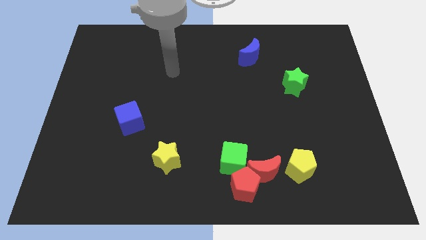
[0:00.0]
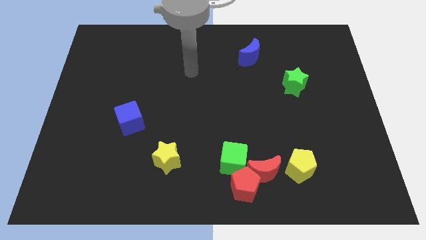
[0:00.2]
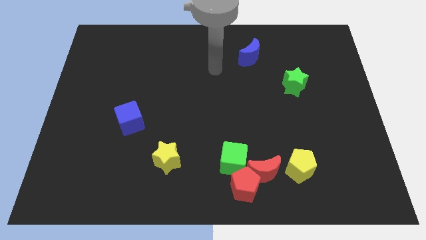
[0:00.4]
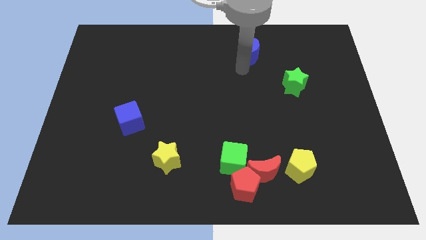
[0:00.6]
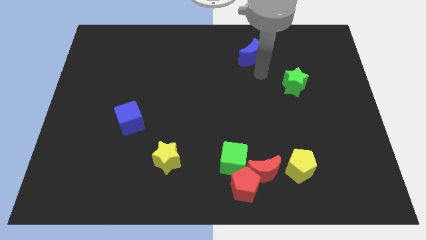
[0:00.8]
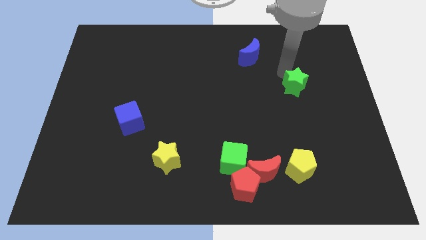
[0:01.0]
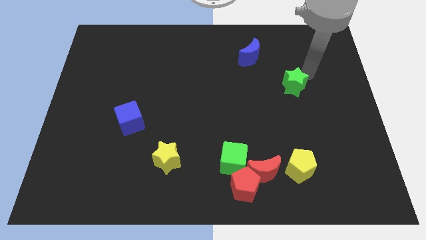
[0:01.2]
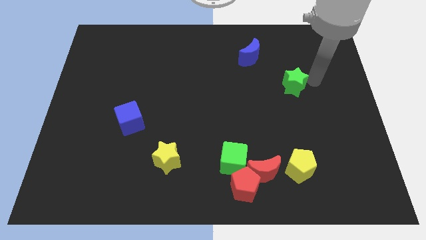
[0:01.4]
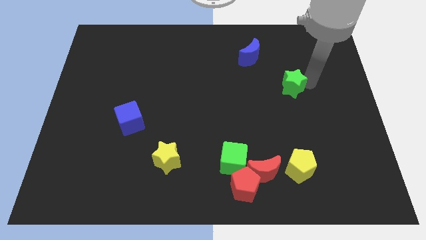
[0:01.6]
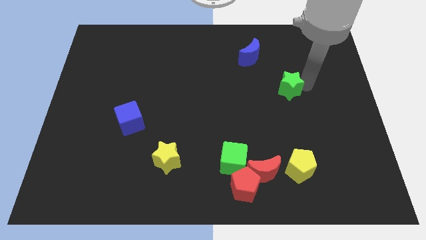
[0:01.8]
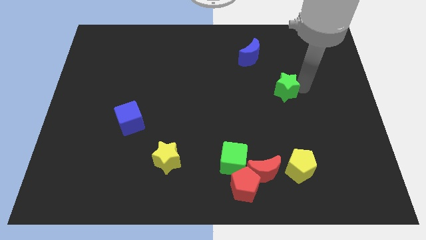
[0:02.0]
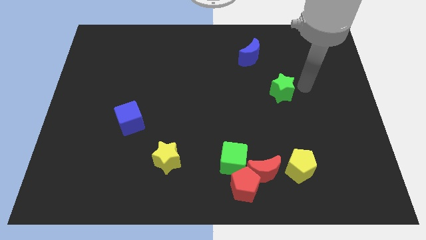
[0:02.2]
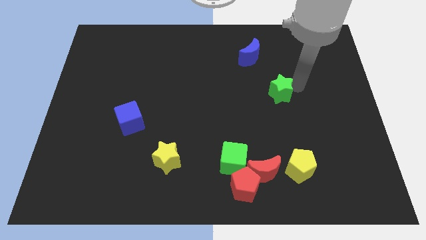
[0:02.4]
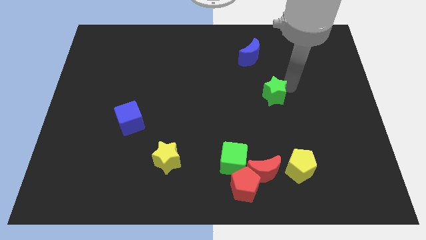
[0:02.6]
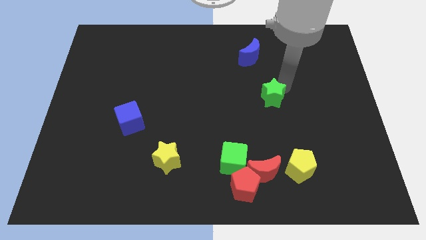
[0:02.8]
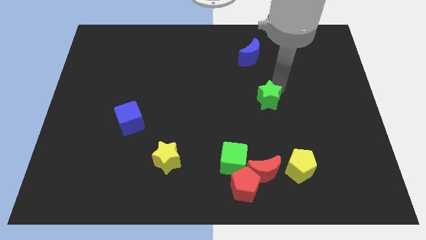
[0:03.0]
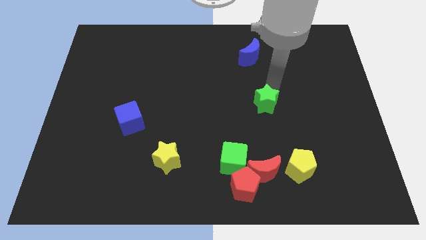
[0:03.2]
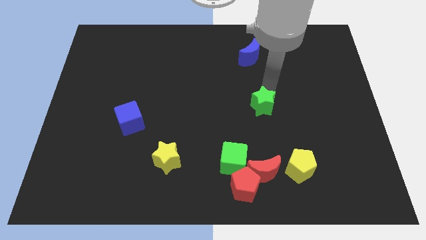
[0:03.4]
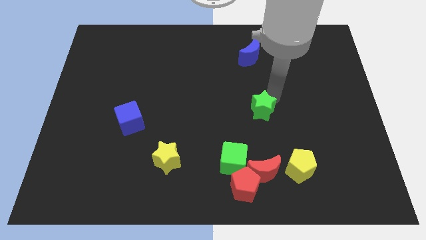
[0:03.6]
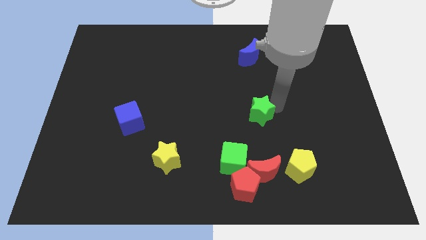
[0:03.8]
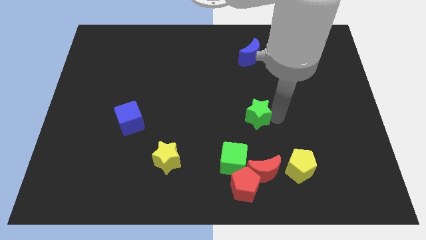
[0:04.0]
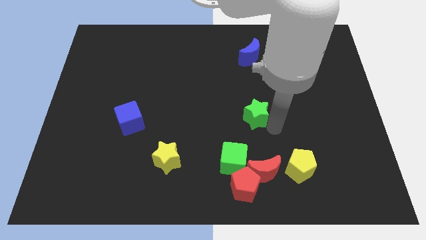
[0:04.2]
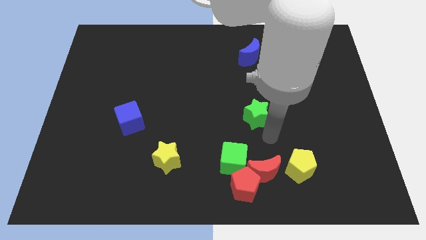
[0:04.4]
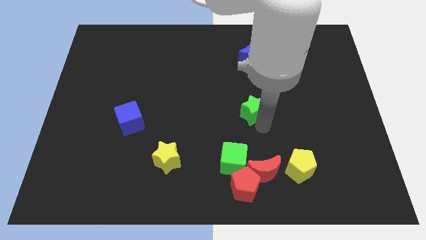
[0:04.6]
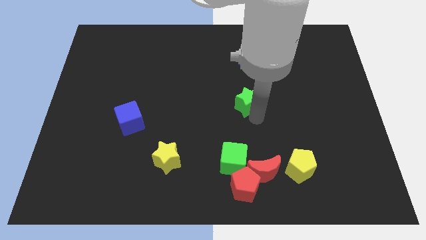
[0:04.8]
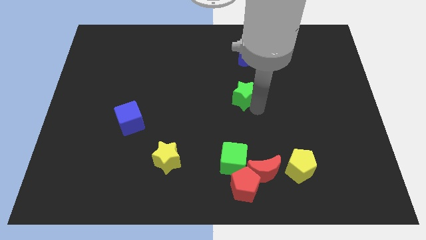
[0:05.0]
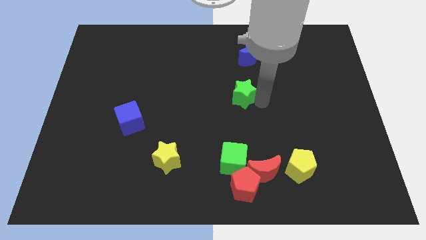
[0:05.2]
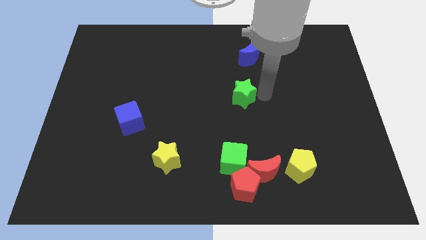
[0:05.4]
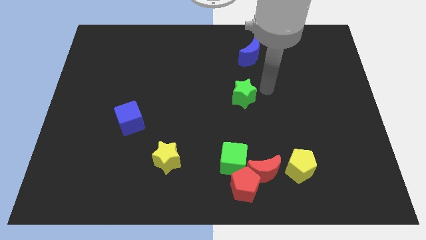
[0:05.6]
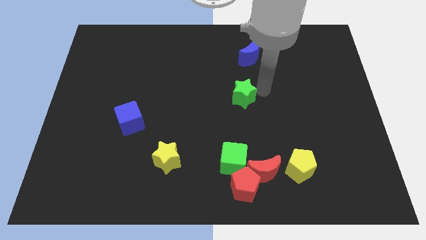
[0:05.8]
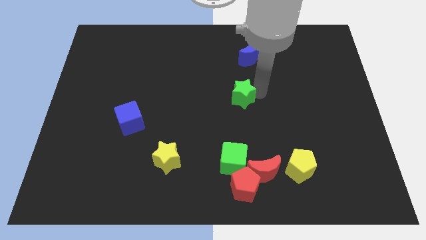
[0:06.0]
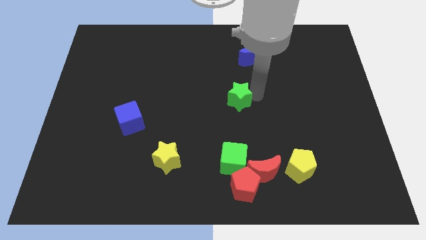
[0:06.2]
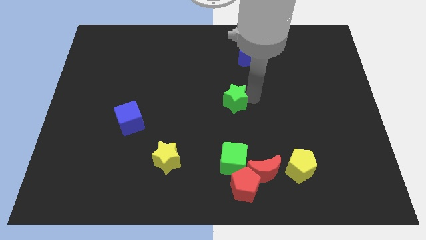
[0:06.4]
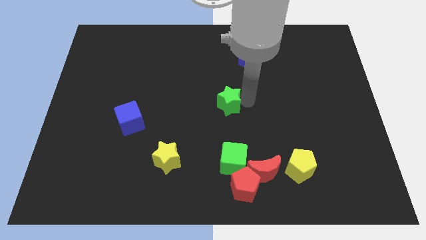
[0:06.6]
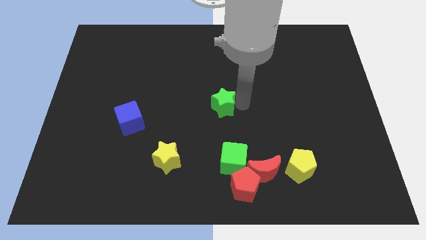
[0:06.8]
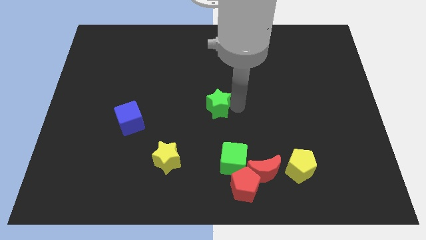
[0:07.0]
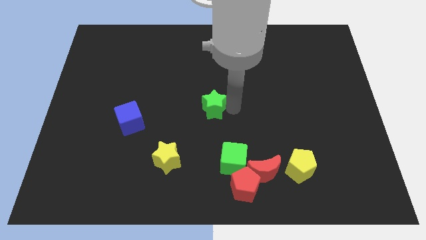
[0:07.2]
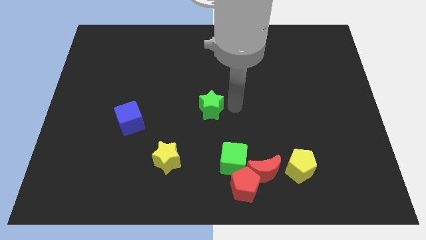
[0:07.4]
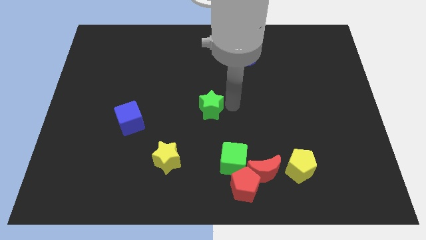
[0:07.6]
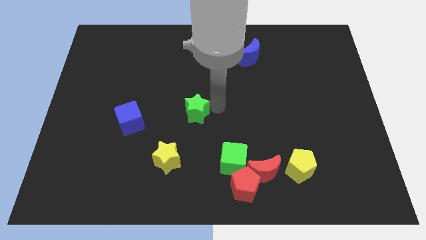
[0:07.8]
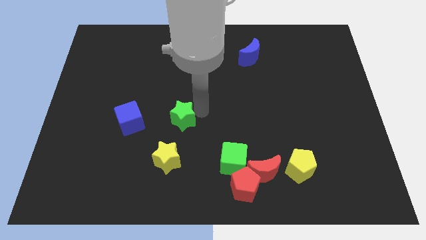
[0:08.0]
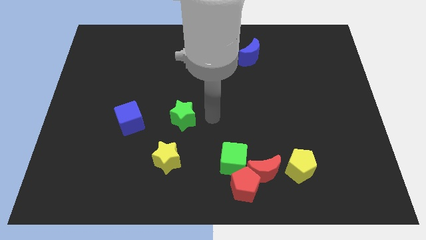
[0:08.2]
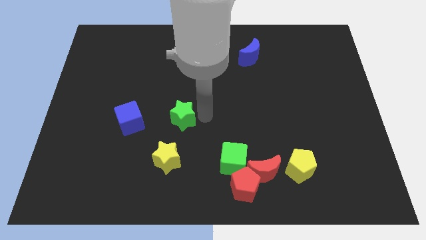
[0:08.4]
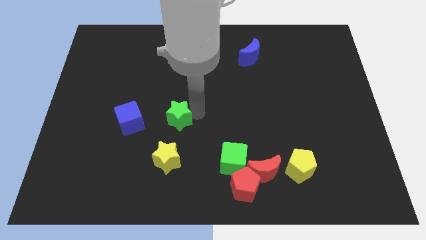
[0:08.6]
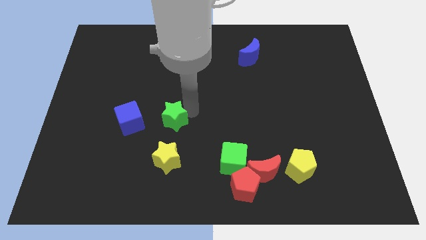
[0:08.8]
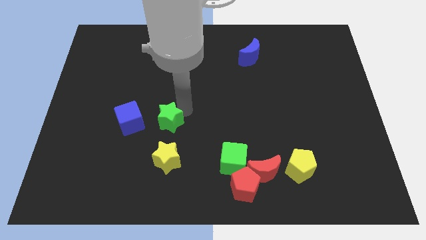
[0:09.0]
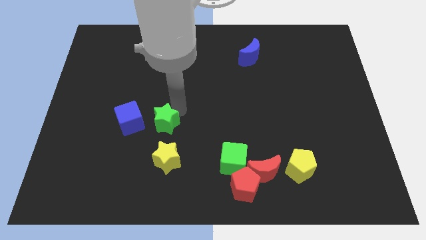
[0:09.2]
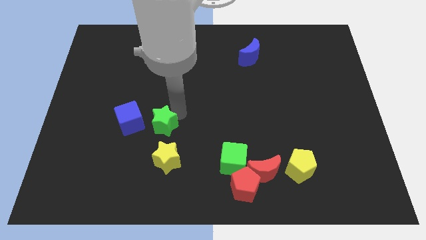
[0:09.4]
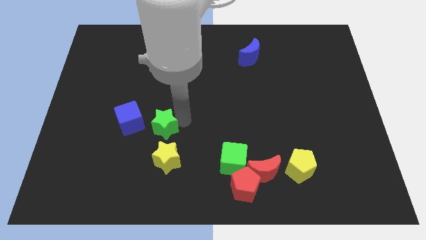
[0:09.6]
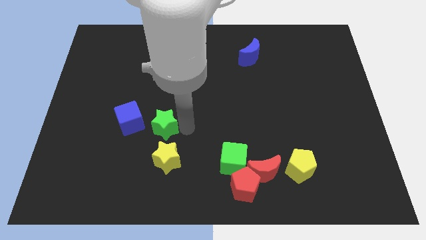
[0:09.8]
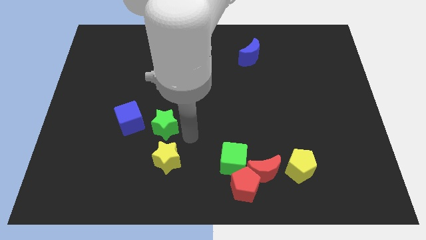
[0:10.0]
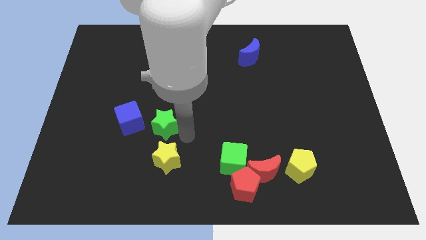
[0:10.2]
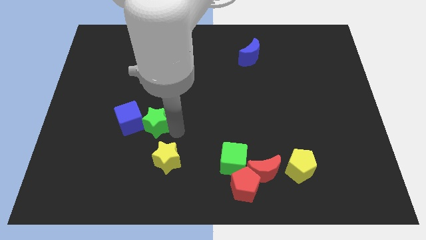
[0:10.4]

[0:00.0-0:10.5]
put the green star close to the blue cube
